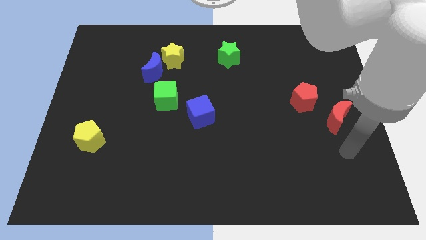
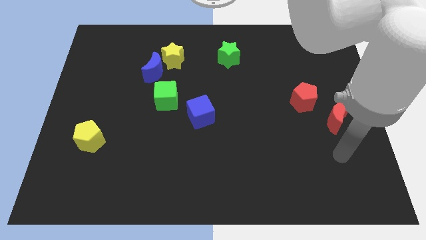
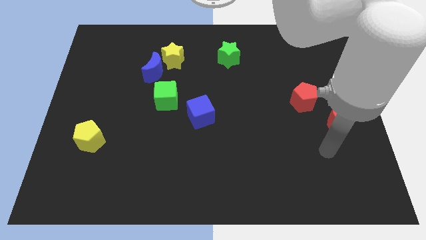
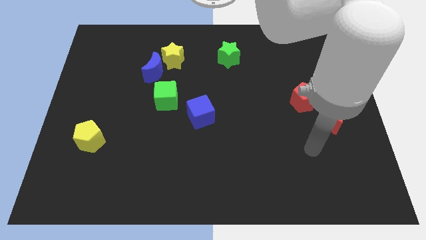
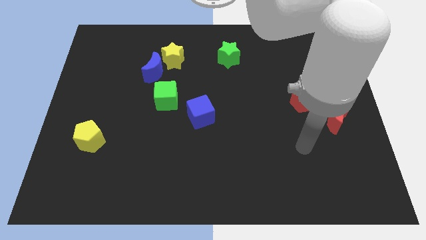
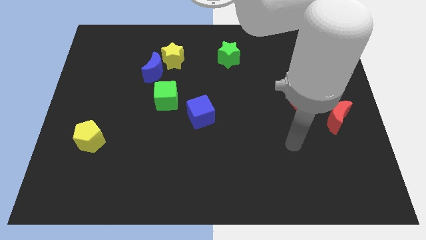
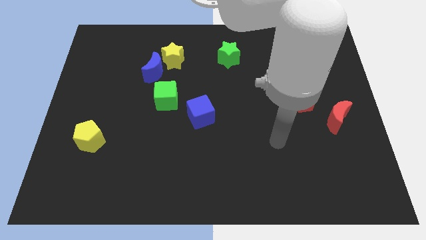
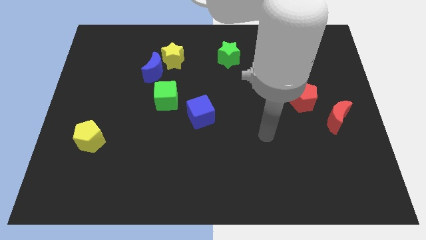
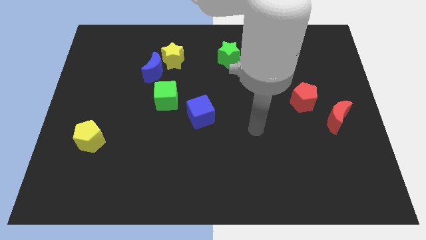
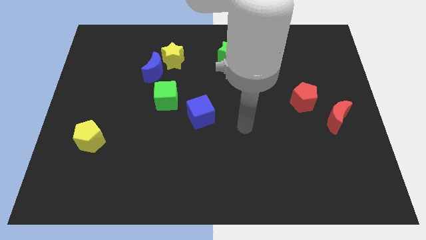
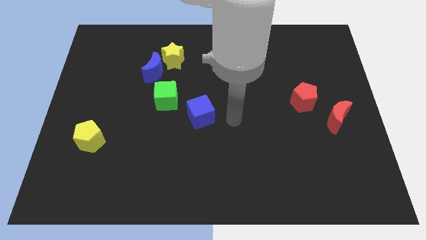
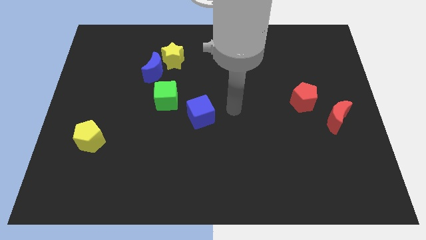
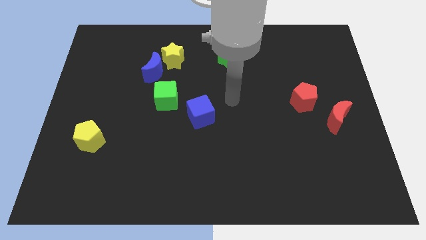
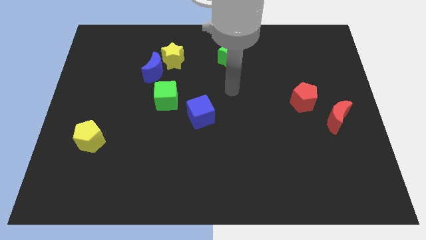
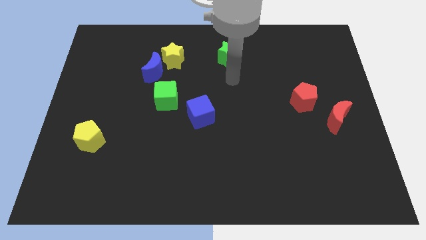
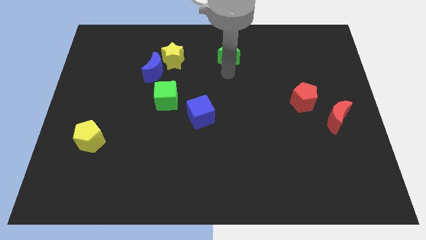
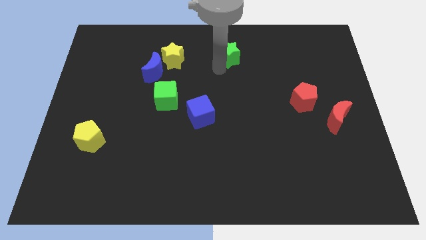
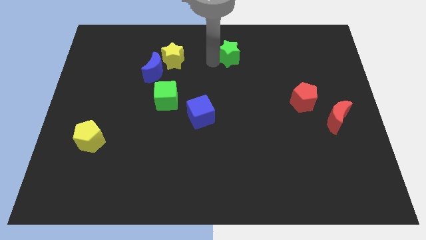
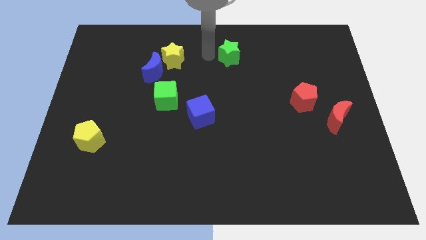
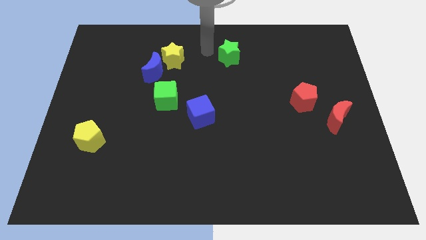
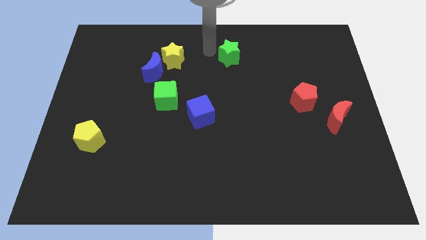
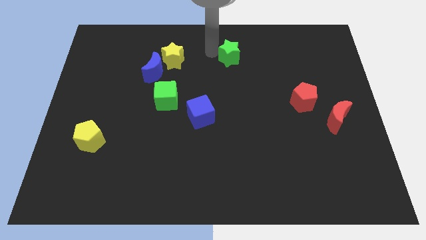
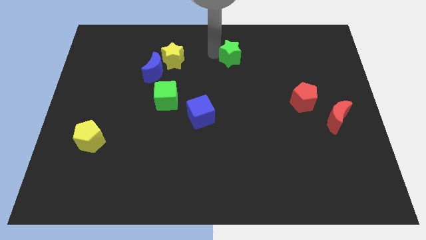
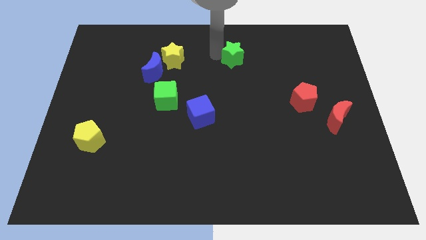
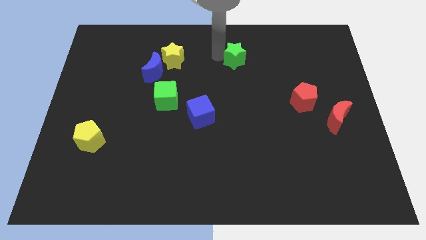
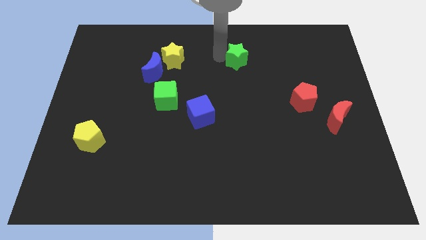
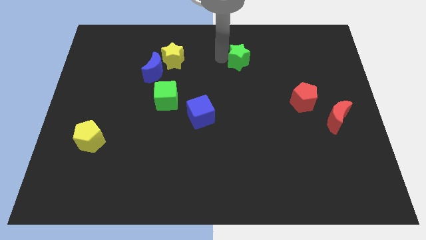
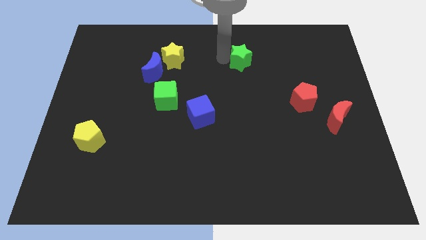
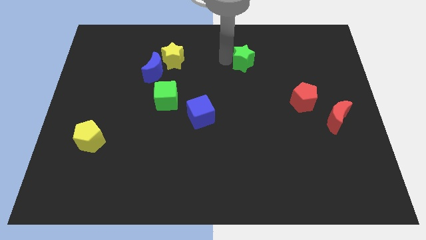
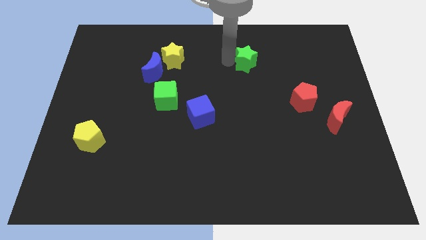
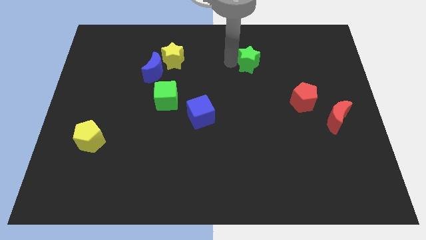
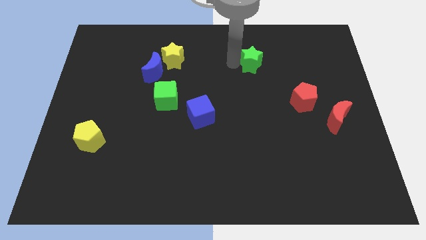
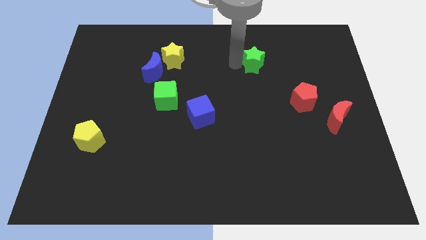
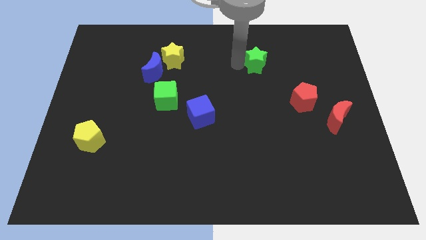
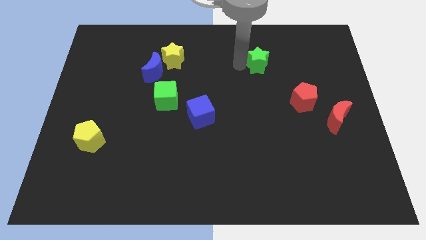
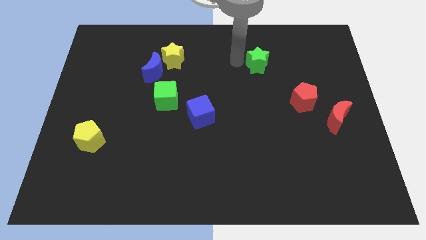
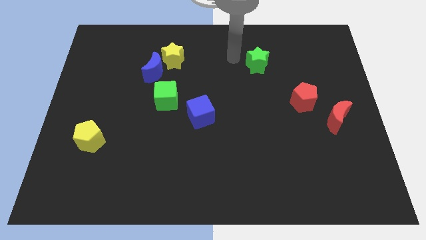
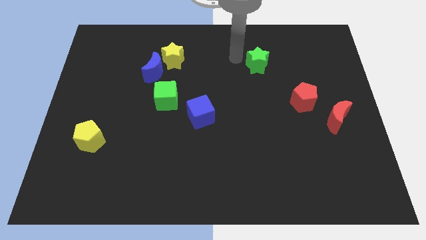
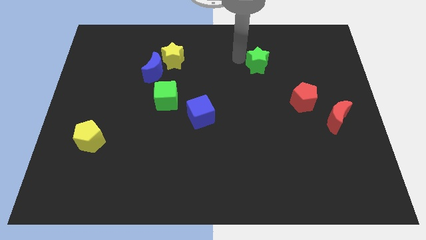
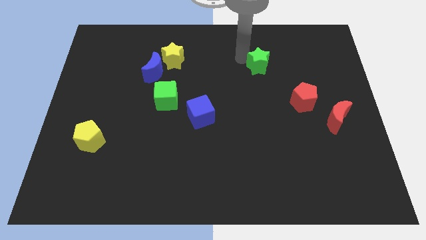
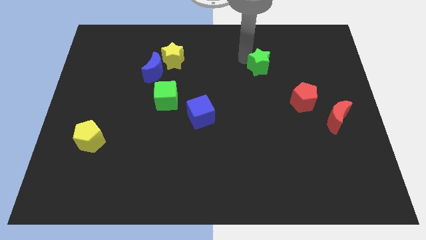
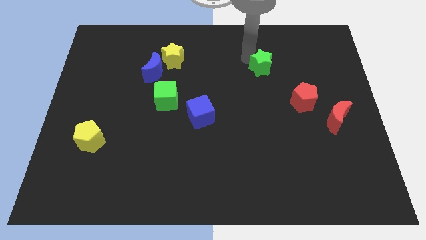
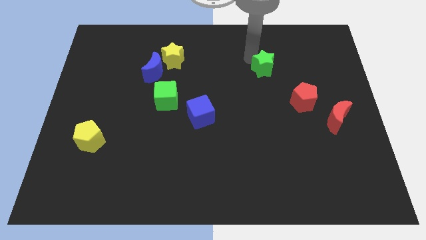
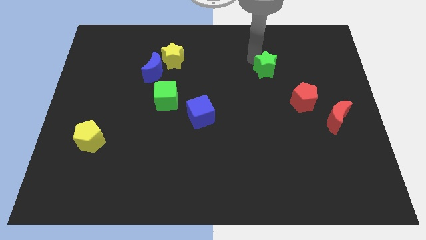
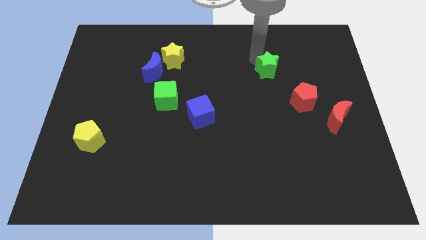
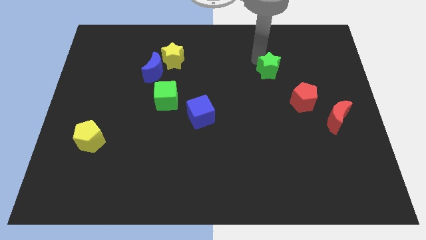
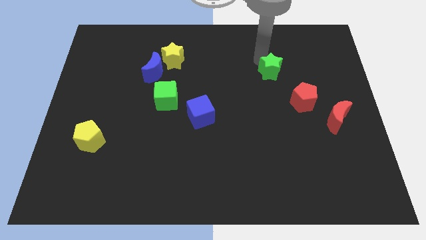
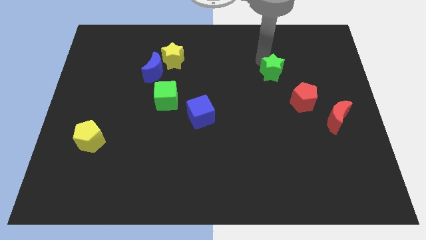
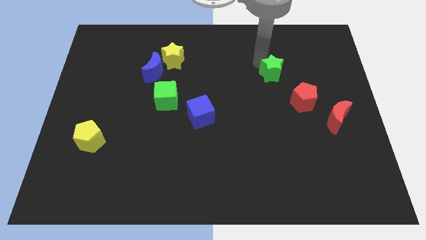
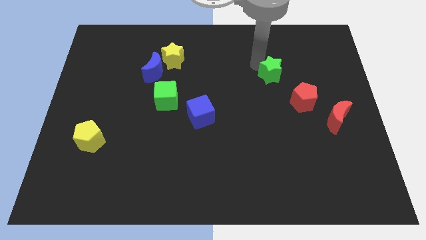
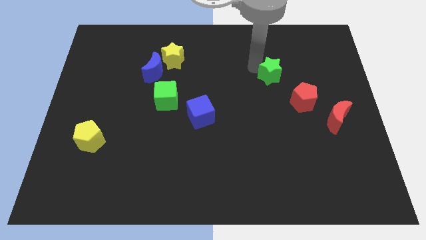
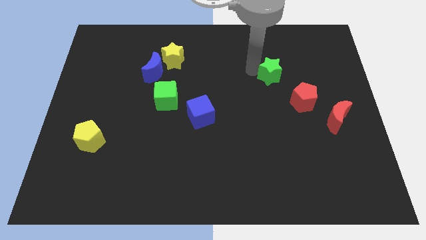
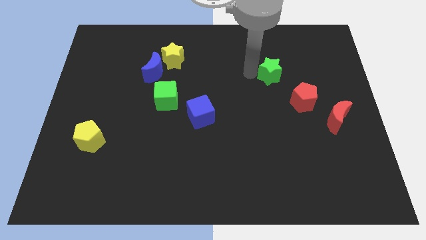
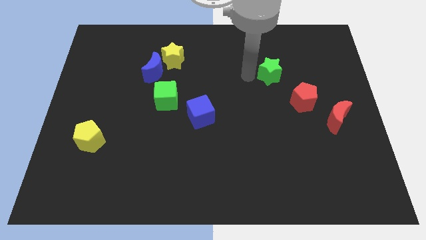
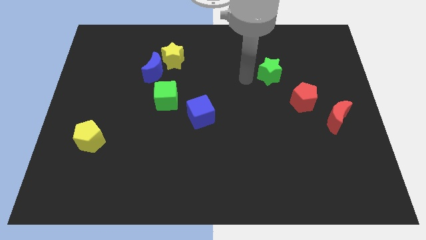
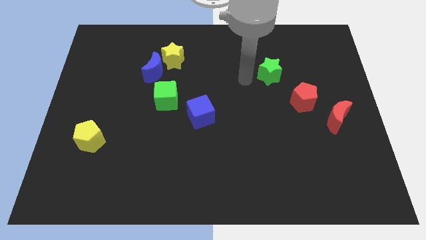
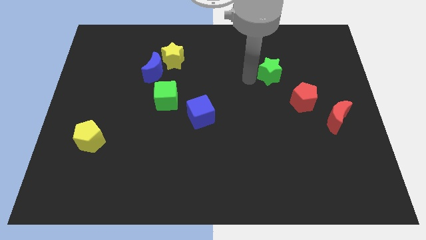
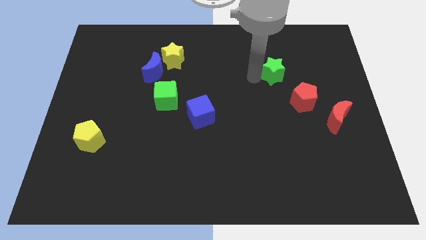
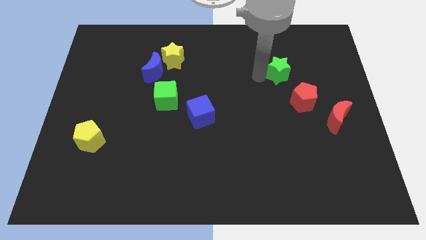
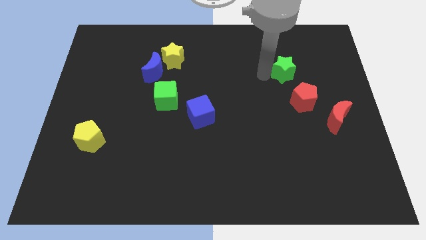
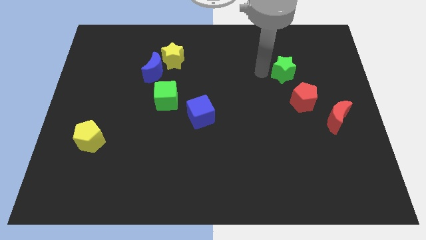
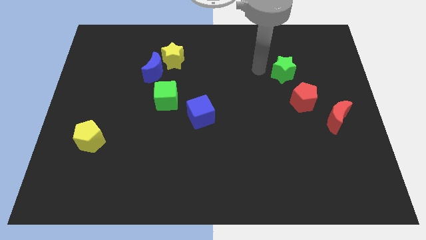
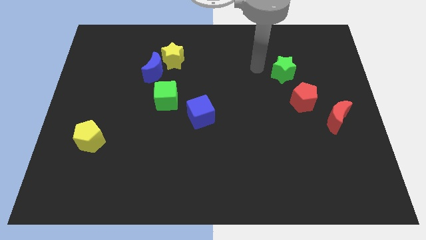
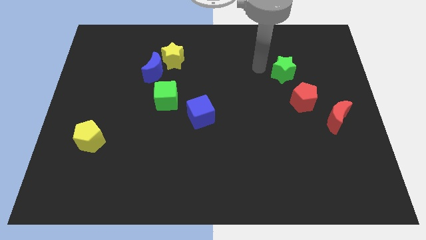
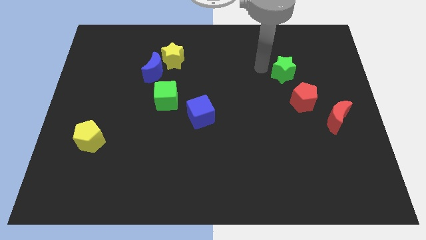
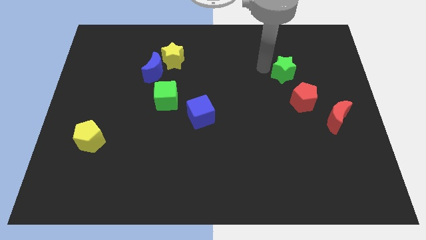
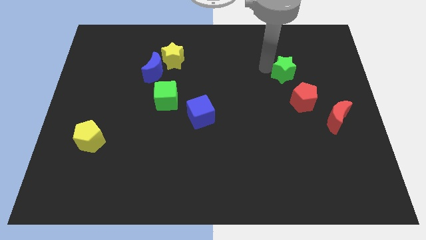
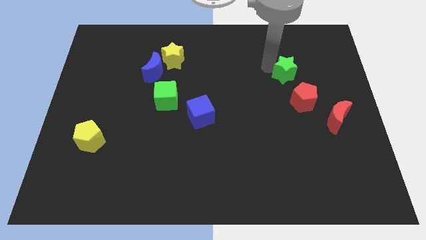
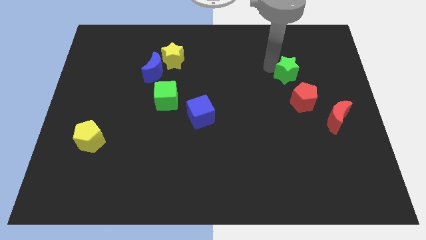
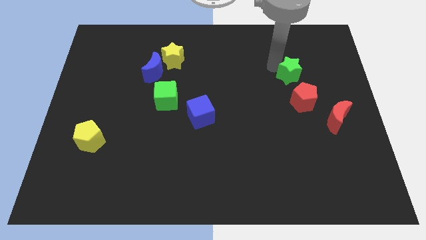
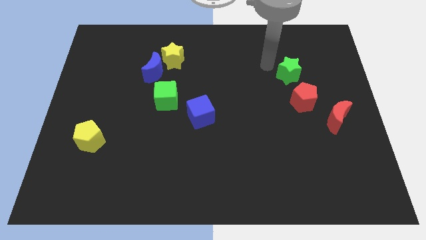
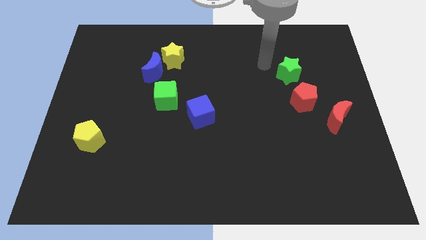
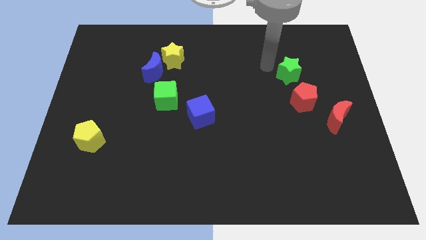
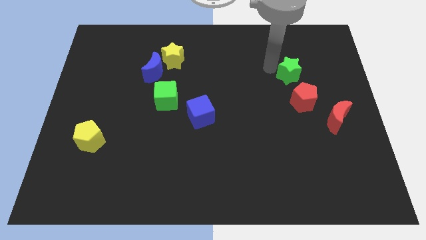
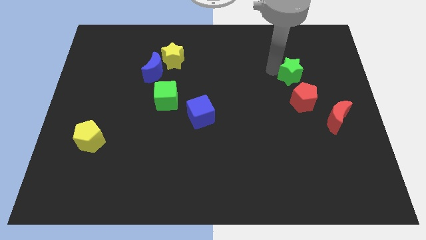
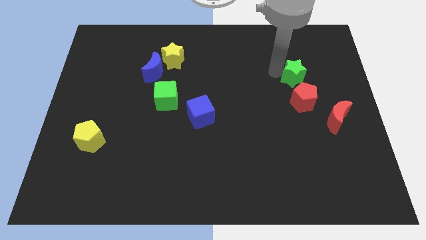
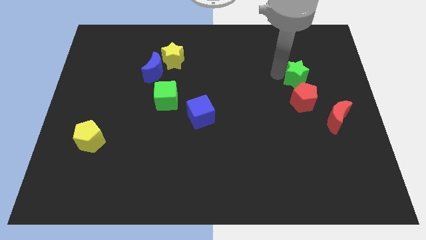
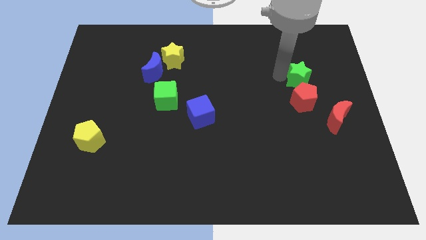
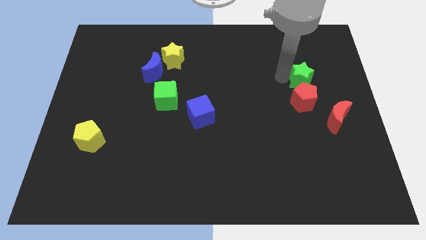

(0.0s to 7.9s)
slide the green star to the top right of the red pentagon
